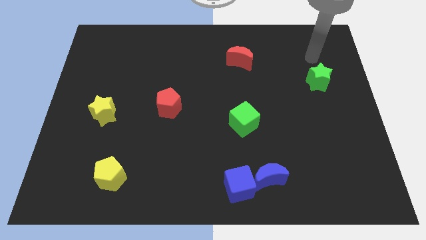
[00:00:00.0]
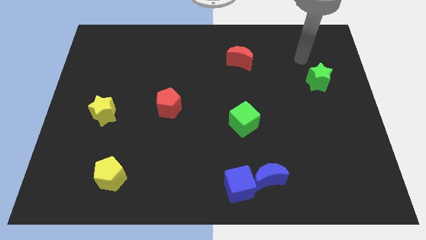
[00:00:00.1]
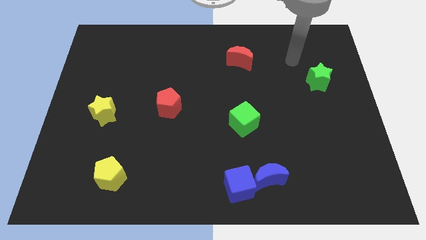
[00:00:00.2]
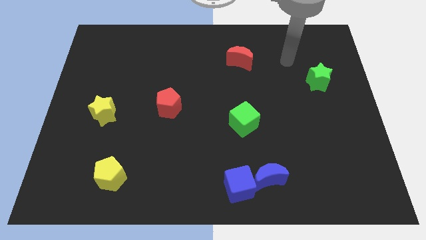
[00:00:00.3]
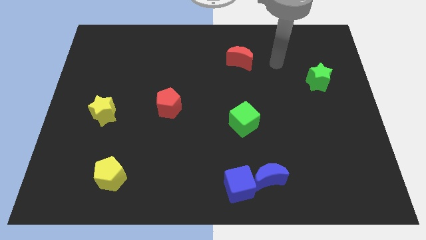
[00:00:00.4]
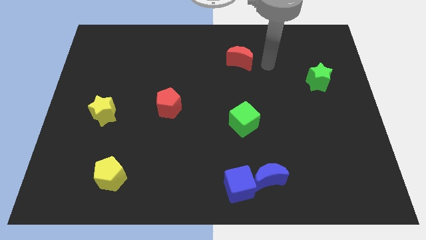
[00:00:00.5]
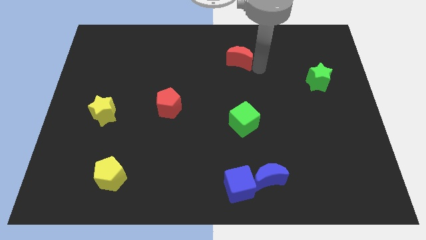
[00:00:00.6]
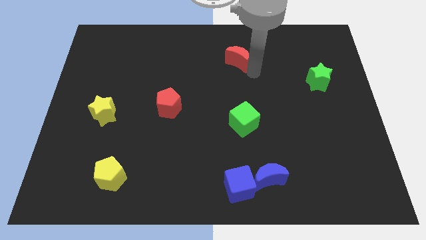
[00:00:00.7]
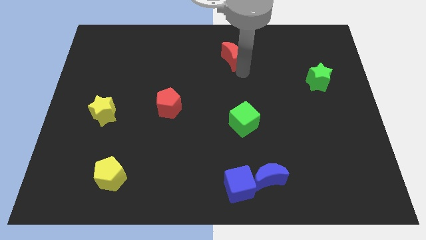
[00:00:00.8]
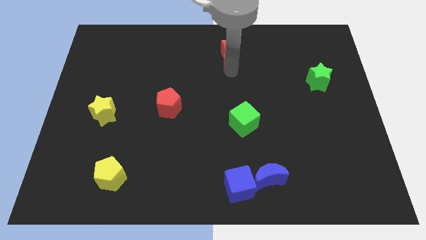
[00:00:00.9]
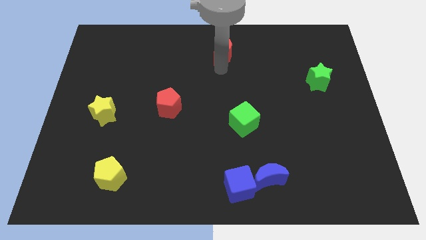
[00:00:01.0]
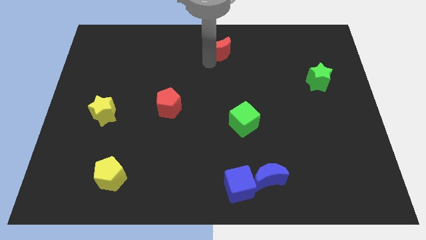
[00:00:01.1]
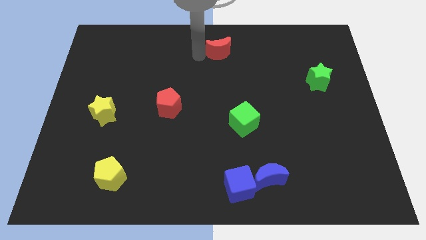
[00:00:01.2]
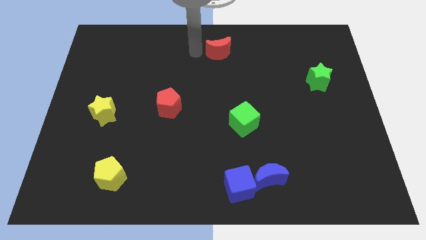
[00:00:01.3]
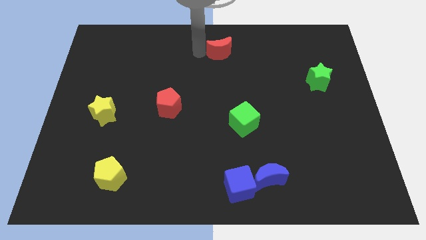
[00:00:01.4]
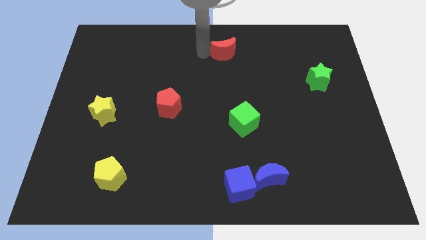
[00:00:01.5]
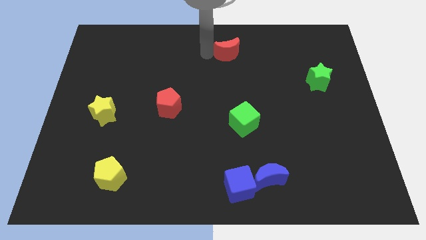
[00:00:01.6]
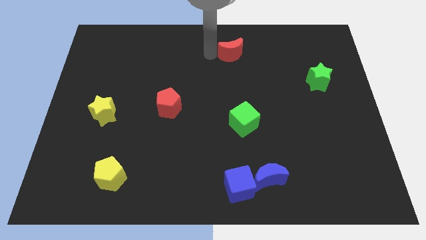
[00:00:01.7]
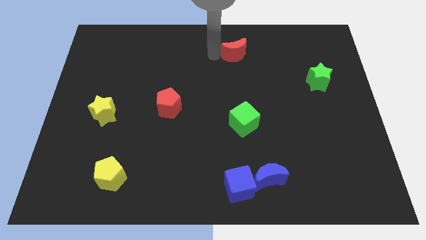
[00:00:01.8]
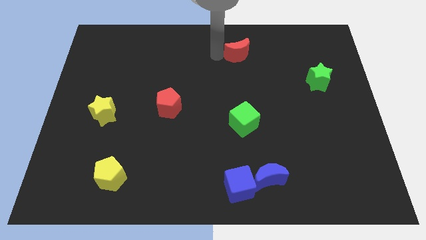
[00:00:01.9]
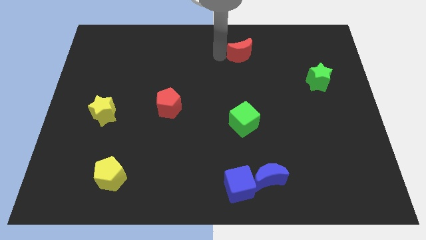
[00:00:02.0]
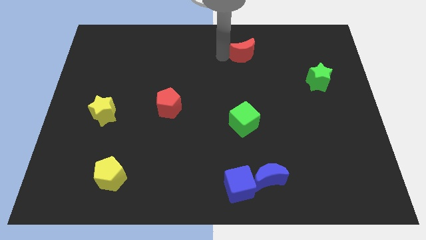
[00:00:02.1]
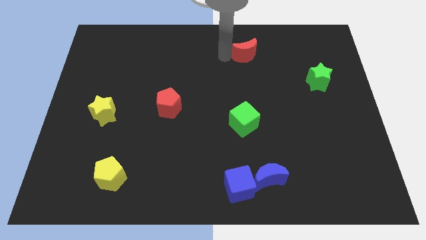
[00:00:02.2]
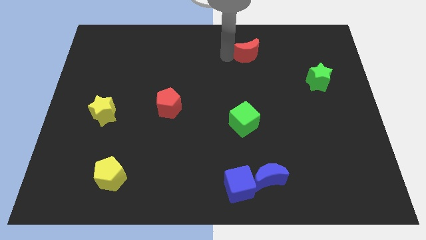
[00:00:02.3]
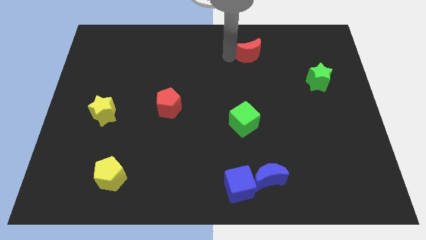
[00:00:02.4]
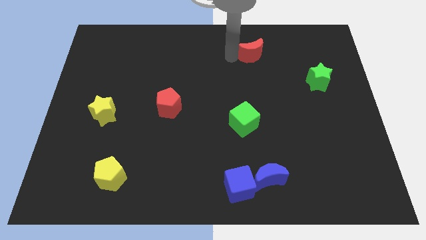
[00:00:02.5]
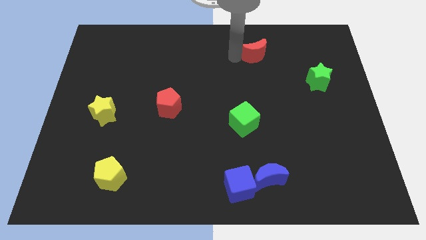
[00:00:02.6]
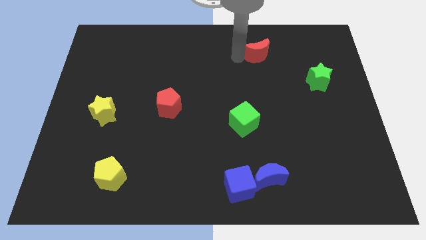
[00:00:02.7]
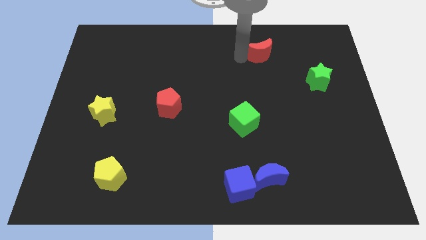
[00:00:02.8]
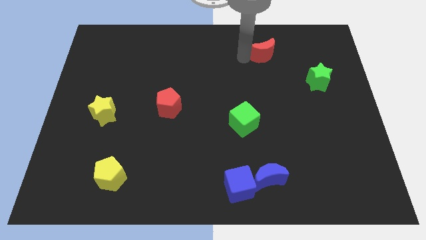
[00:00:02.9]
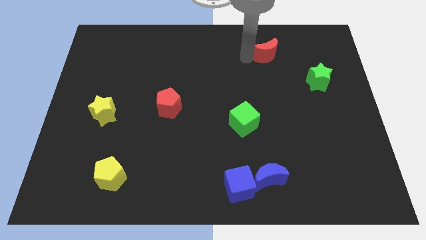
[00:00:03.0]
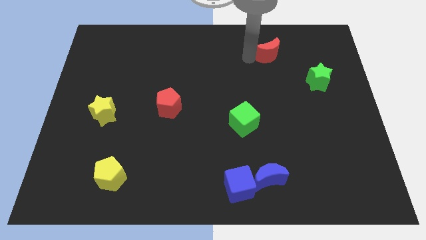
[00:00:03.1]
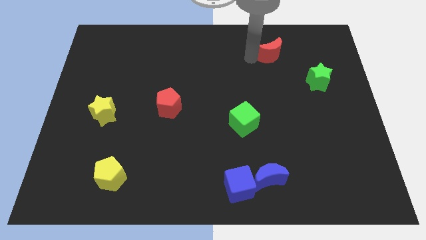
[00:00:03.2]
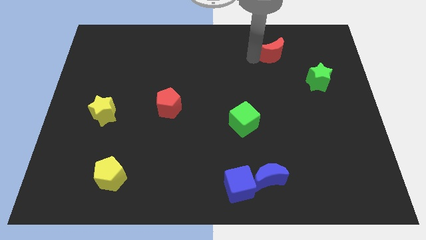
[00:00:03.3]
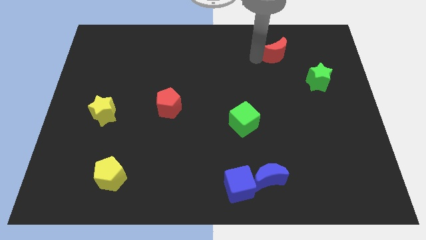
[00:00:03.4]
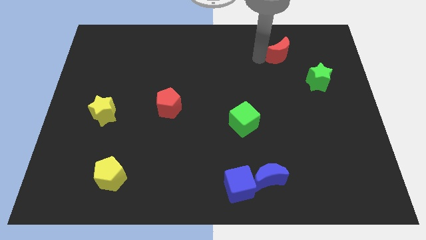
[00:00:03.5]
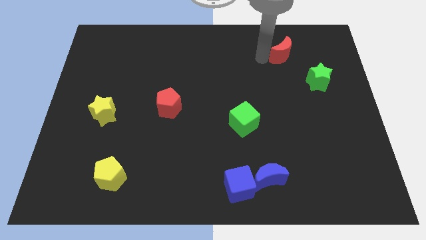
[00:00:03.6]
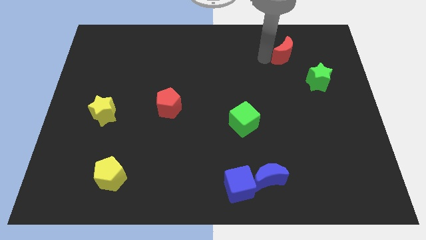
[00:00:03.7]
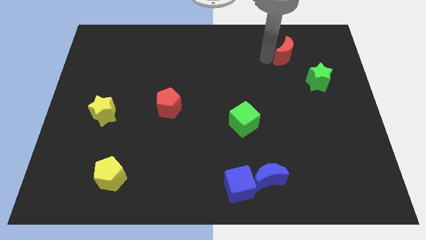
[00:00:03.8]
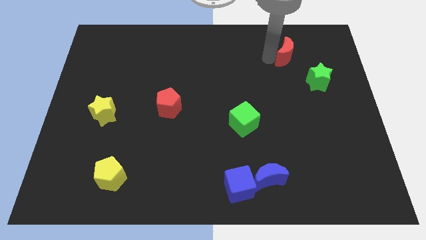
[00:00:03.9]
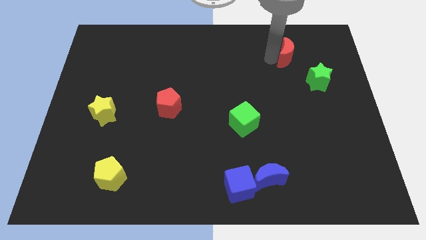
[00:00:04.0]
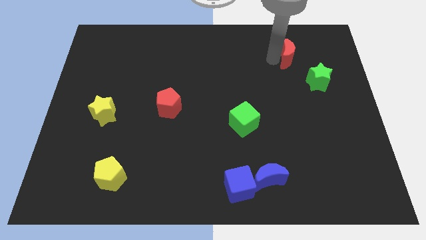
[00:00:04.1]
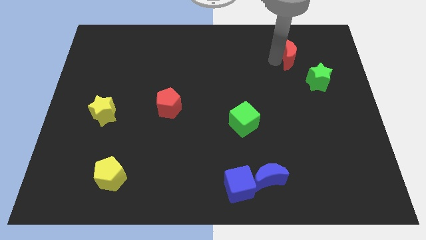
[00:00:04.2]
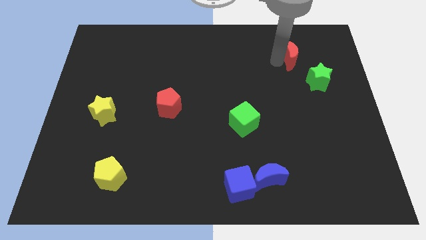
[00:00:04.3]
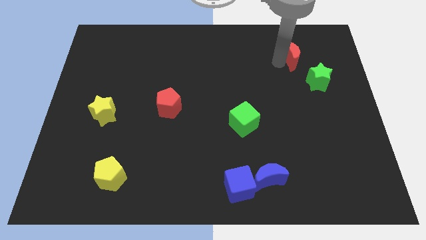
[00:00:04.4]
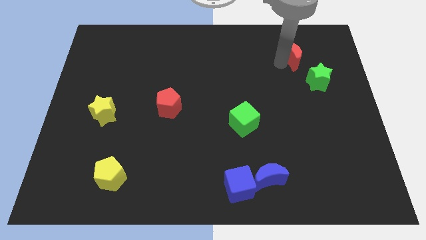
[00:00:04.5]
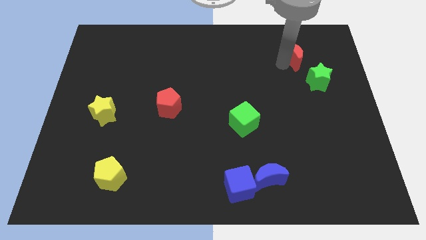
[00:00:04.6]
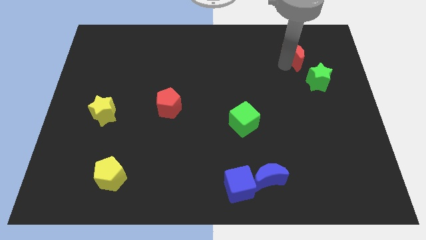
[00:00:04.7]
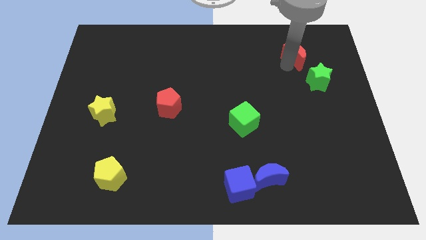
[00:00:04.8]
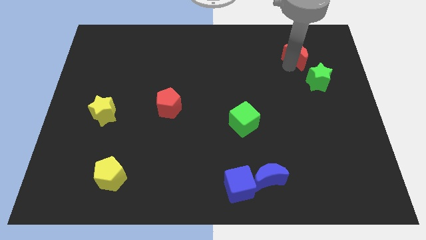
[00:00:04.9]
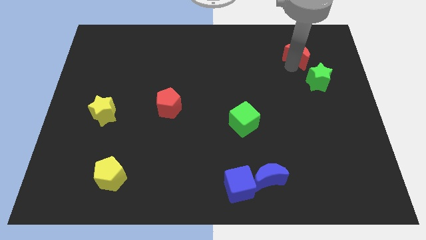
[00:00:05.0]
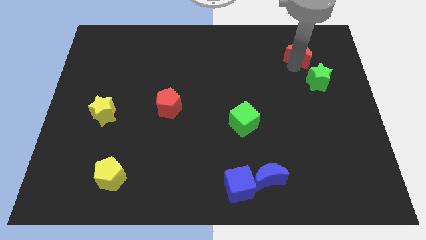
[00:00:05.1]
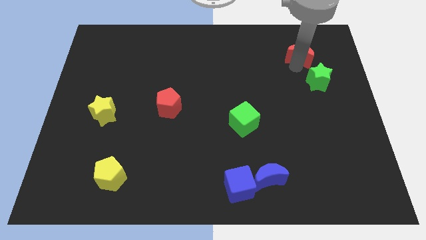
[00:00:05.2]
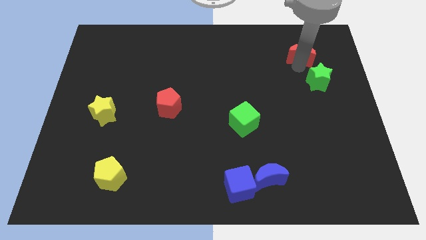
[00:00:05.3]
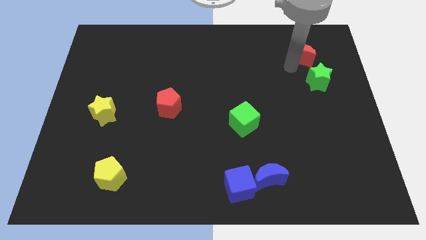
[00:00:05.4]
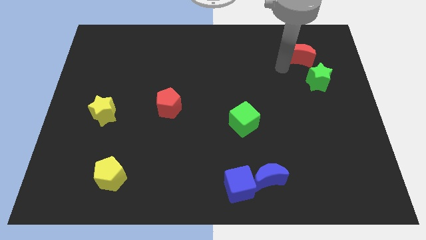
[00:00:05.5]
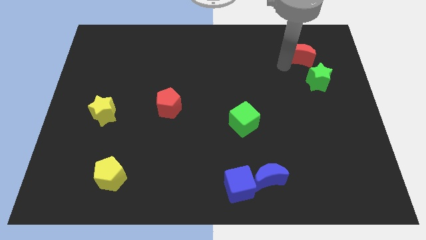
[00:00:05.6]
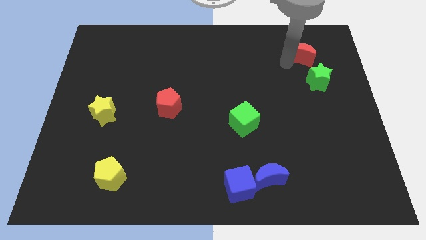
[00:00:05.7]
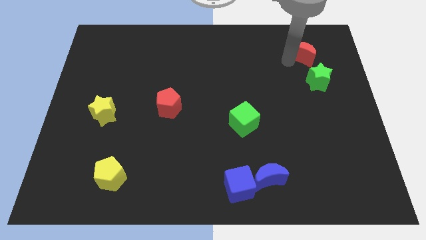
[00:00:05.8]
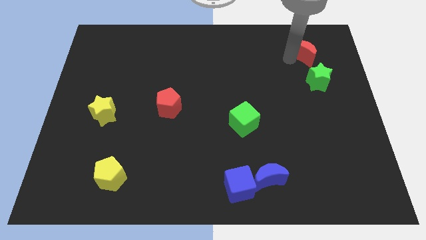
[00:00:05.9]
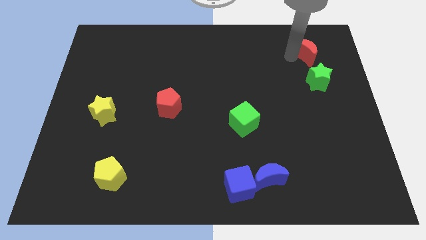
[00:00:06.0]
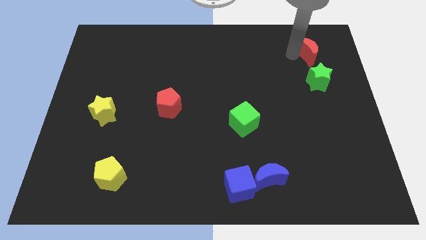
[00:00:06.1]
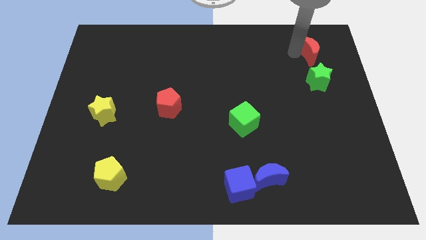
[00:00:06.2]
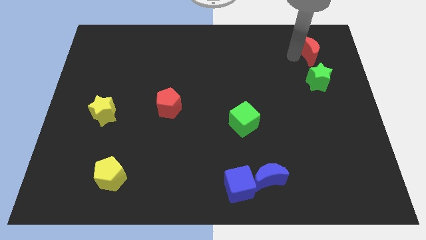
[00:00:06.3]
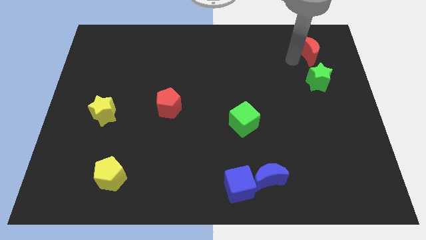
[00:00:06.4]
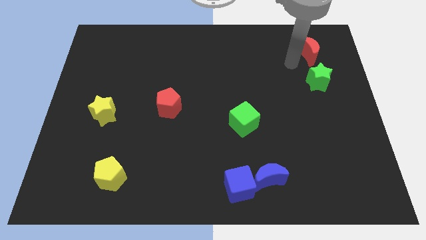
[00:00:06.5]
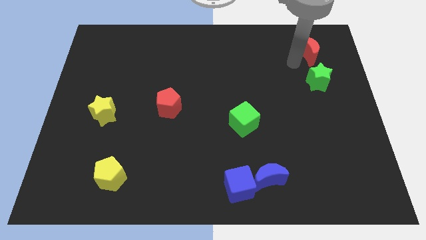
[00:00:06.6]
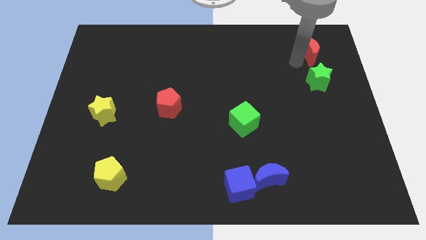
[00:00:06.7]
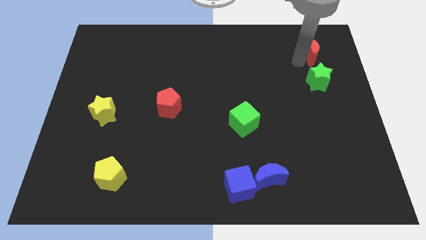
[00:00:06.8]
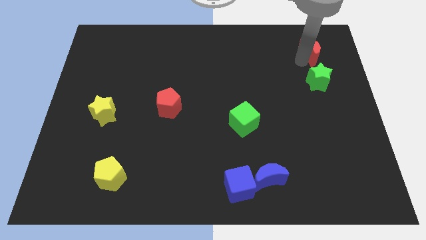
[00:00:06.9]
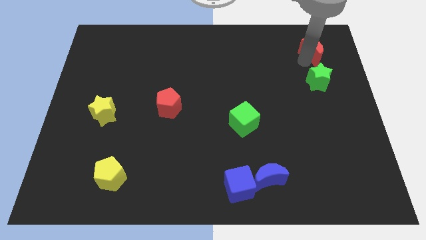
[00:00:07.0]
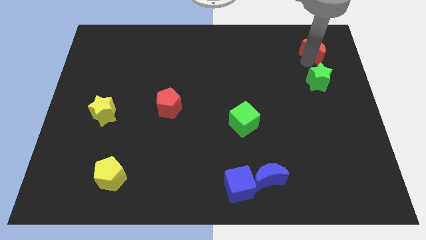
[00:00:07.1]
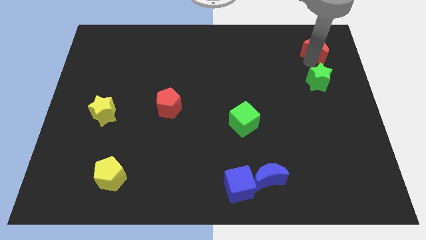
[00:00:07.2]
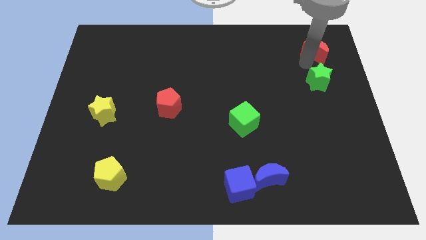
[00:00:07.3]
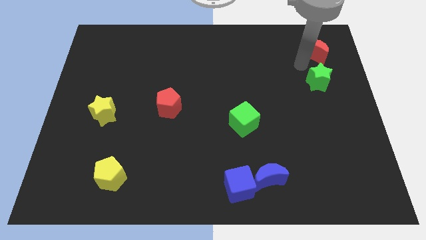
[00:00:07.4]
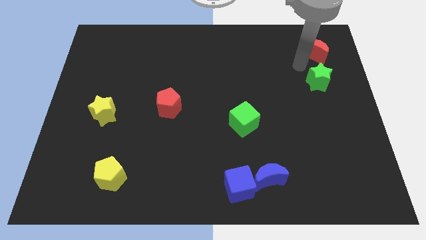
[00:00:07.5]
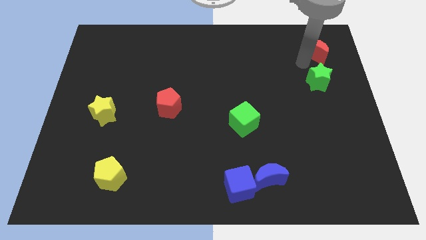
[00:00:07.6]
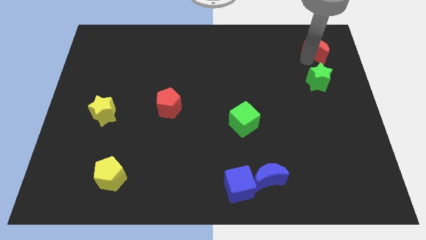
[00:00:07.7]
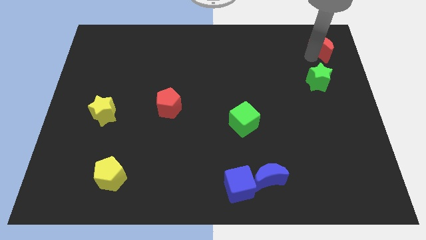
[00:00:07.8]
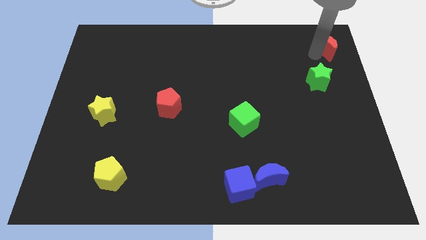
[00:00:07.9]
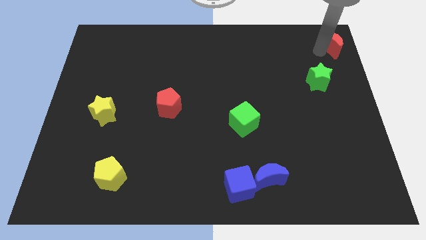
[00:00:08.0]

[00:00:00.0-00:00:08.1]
move the red moon to the top right corner
